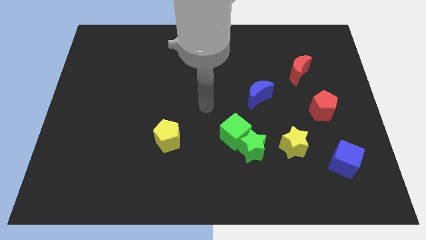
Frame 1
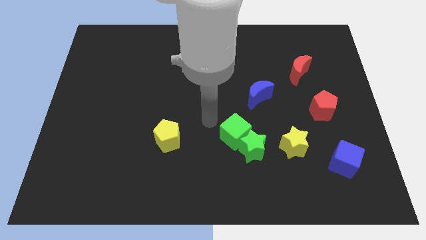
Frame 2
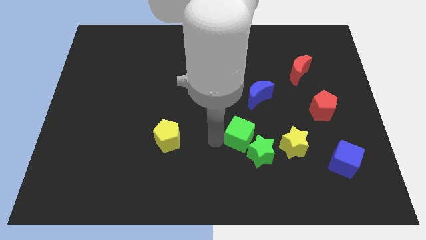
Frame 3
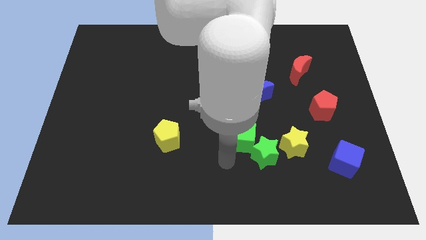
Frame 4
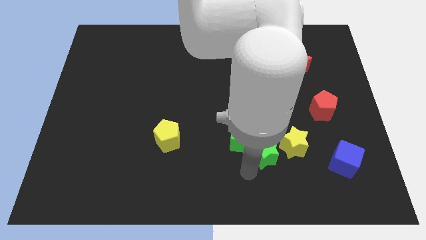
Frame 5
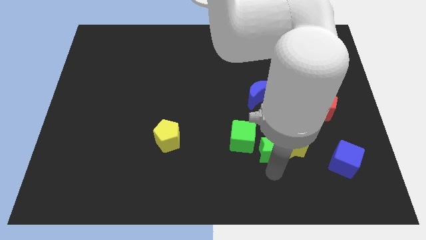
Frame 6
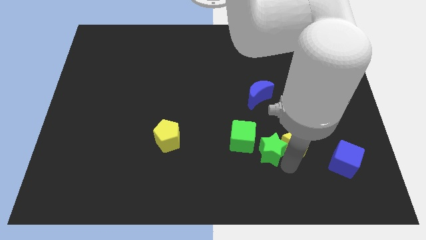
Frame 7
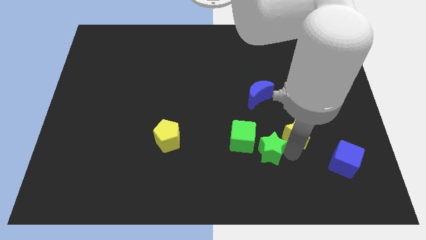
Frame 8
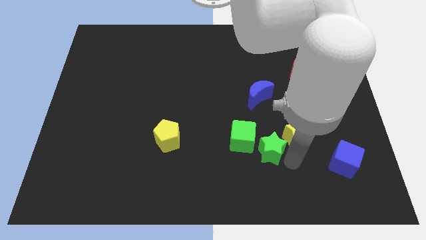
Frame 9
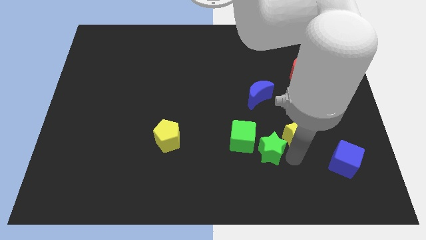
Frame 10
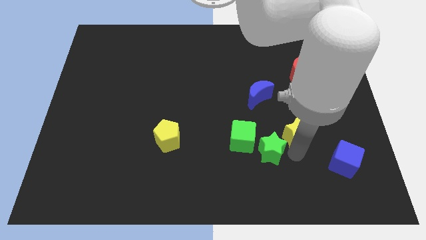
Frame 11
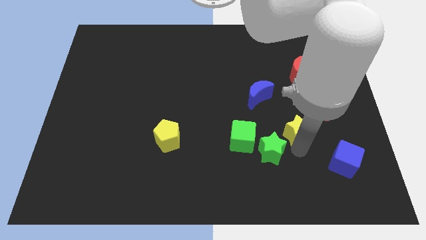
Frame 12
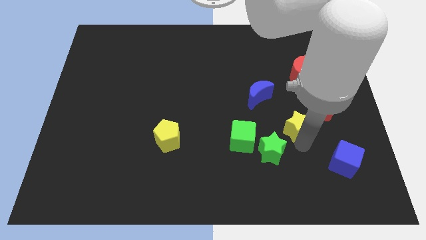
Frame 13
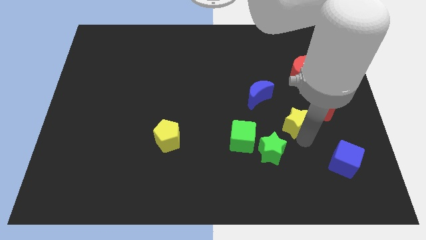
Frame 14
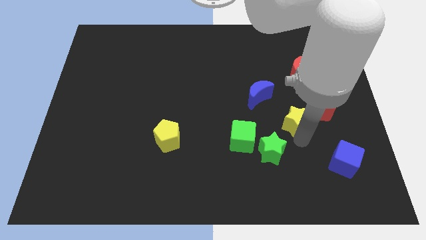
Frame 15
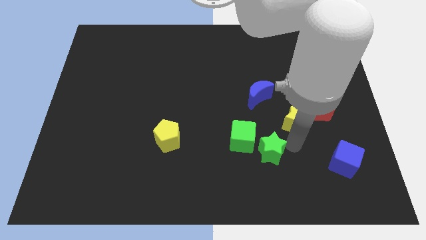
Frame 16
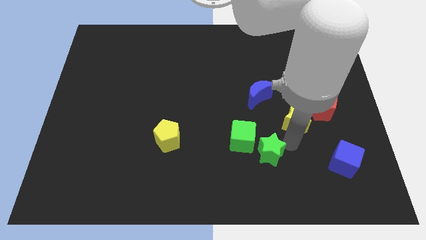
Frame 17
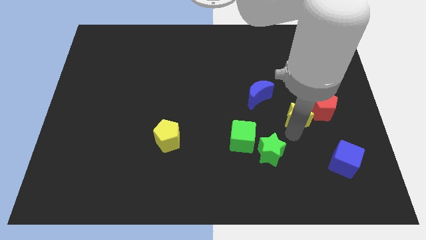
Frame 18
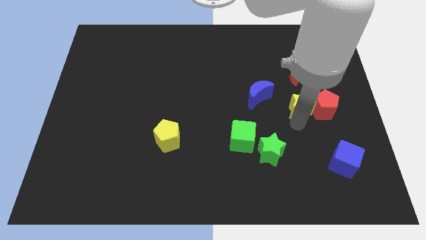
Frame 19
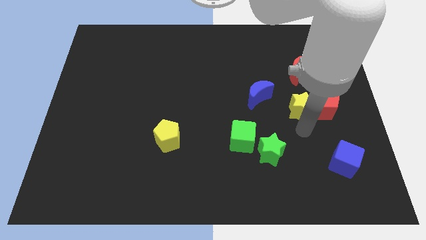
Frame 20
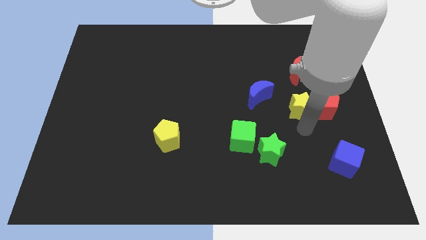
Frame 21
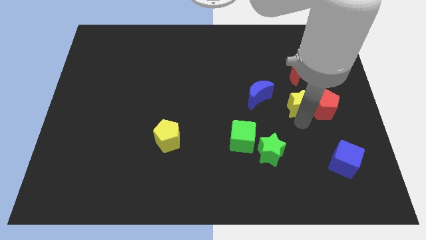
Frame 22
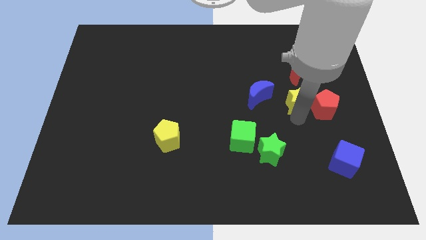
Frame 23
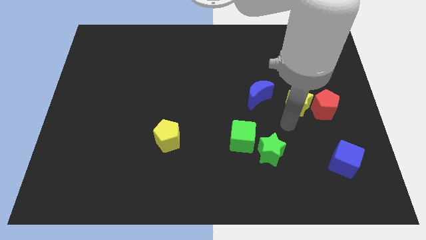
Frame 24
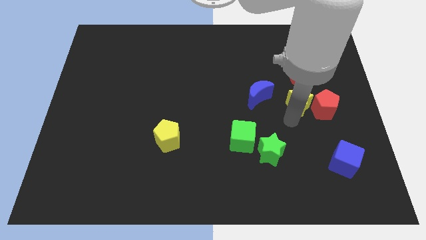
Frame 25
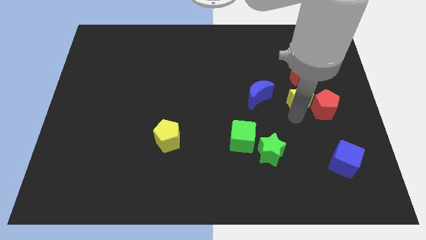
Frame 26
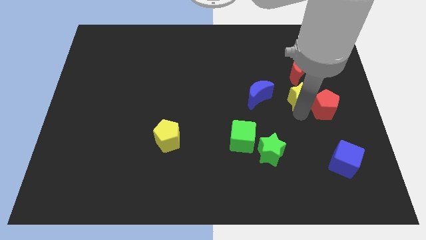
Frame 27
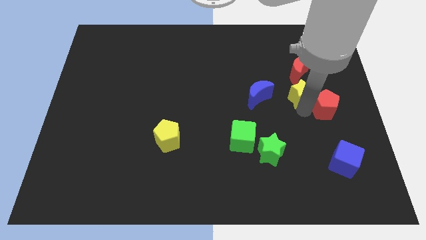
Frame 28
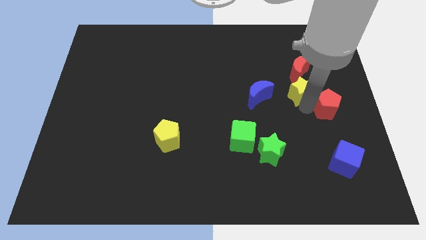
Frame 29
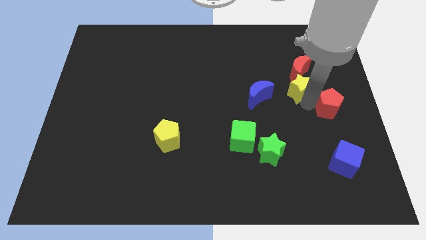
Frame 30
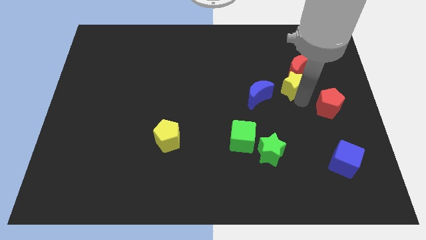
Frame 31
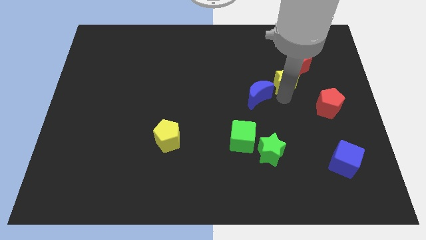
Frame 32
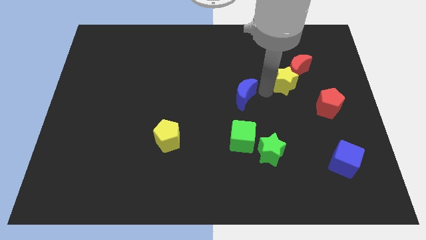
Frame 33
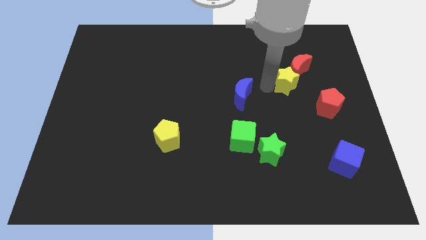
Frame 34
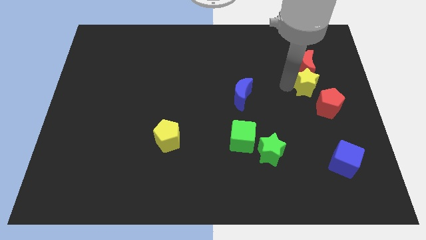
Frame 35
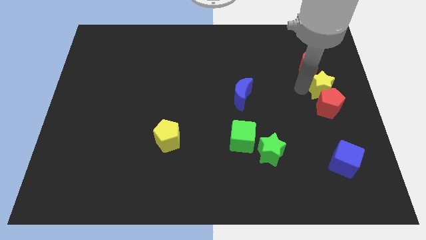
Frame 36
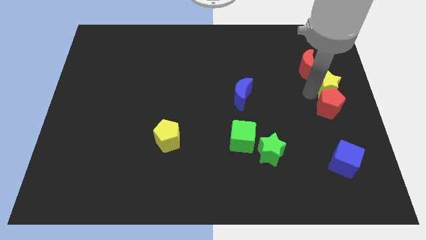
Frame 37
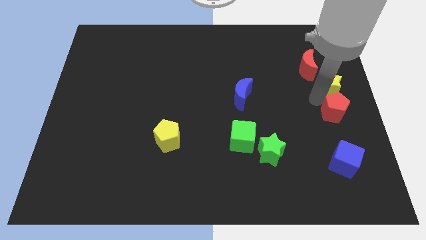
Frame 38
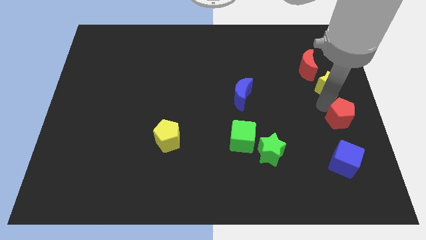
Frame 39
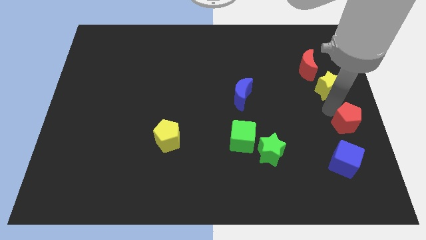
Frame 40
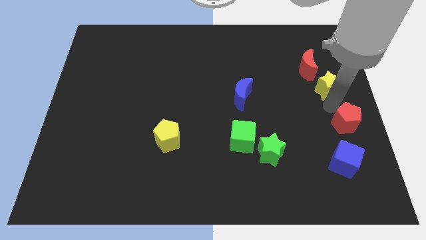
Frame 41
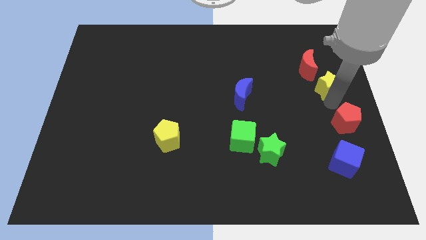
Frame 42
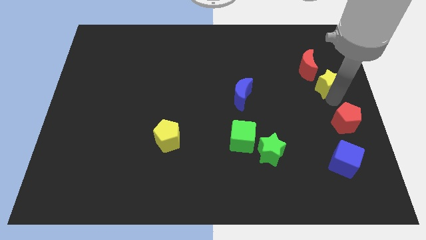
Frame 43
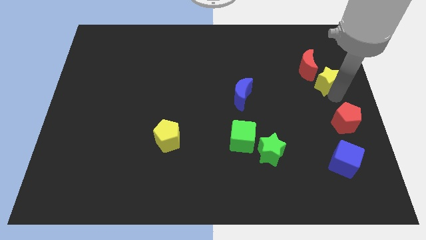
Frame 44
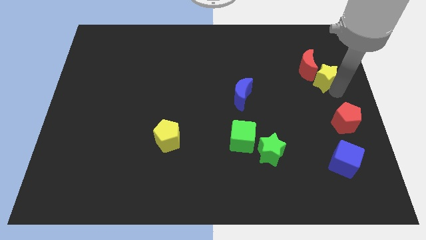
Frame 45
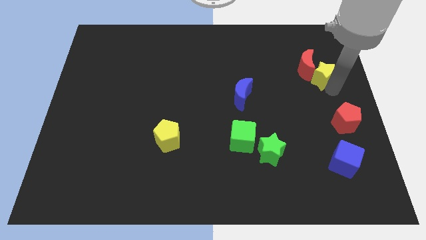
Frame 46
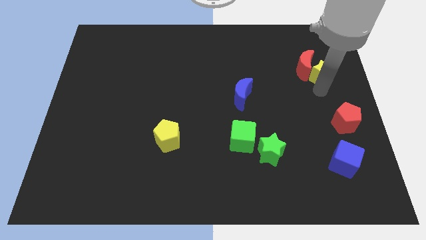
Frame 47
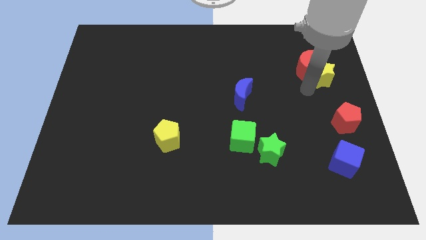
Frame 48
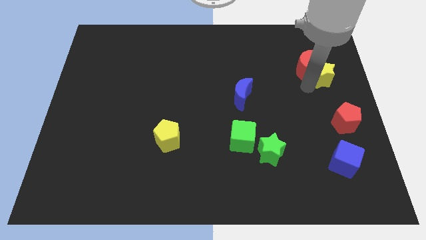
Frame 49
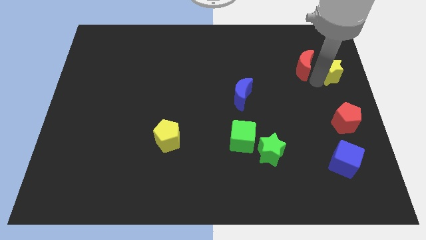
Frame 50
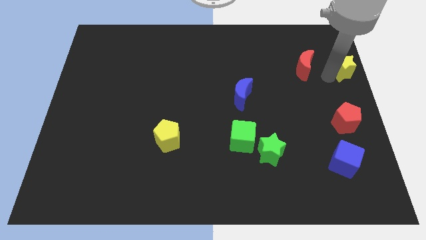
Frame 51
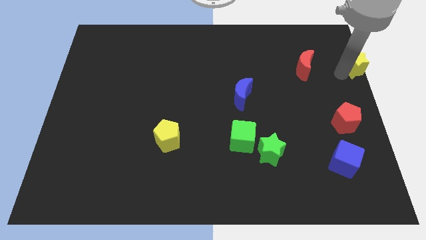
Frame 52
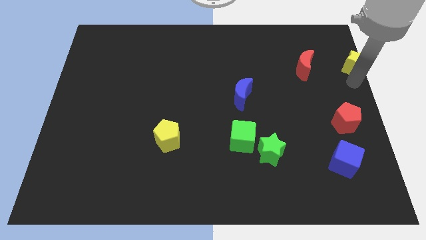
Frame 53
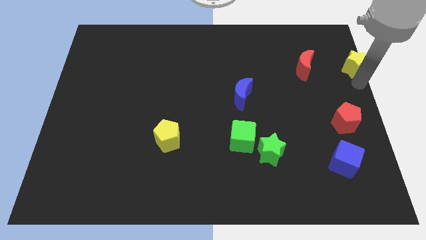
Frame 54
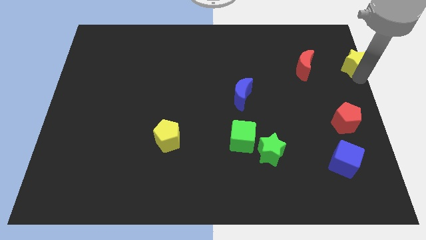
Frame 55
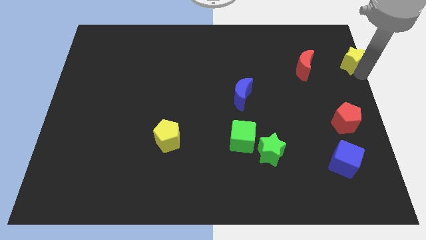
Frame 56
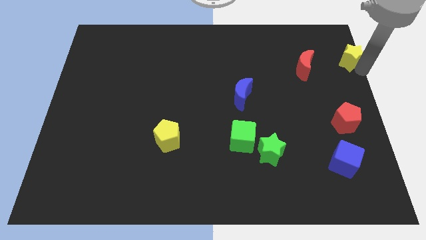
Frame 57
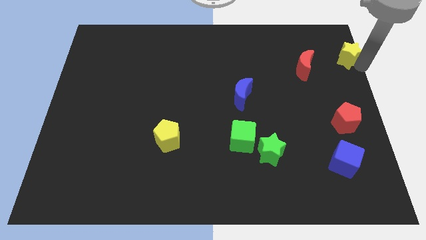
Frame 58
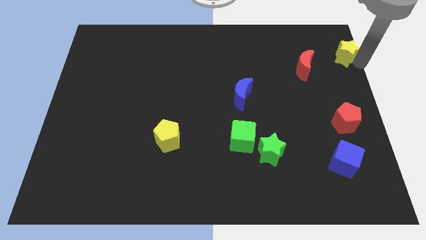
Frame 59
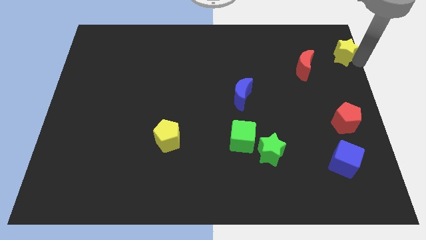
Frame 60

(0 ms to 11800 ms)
put the yellow star to the upper right corner

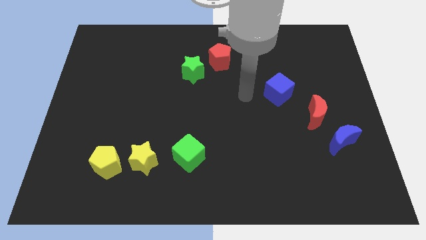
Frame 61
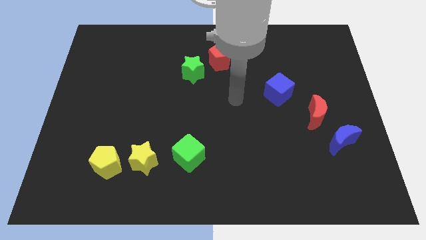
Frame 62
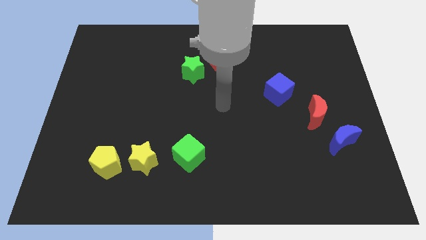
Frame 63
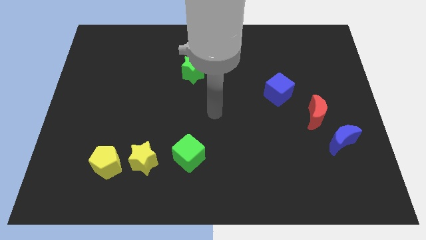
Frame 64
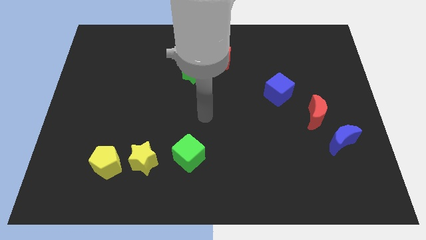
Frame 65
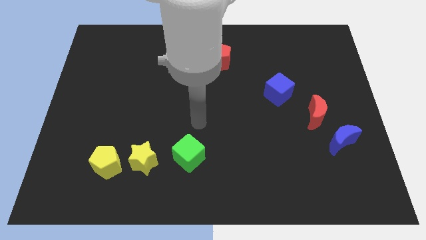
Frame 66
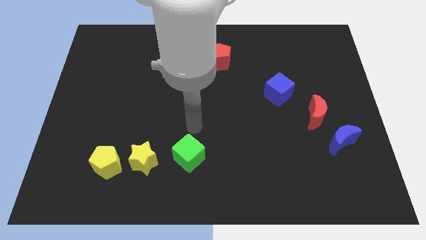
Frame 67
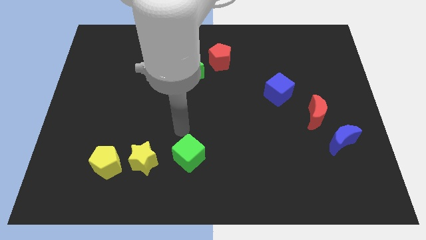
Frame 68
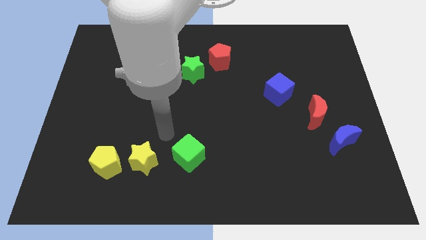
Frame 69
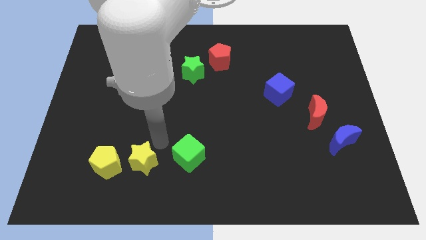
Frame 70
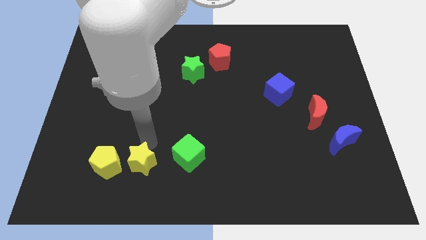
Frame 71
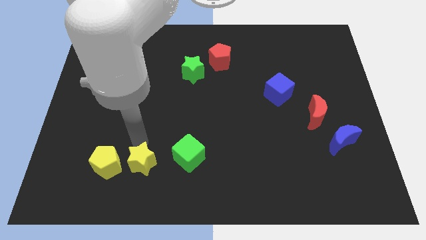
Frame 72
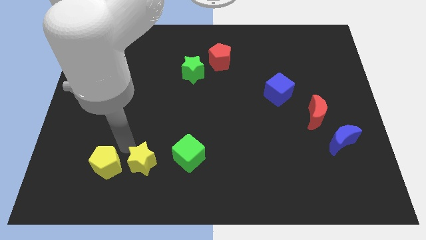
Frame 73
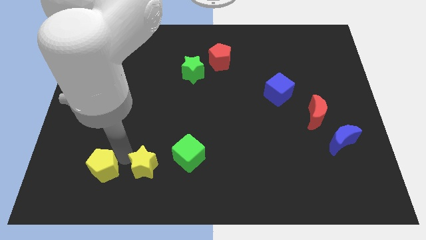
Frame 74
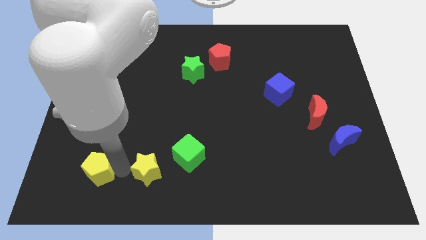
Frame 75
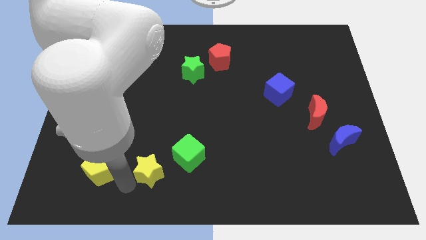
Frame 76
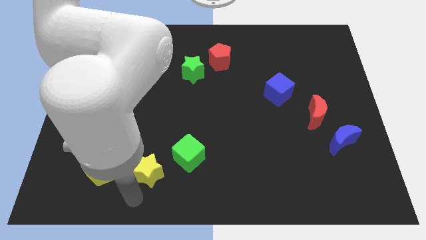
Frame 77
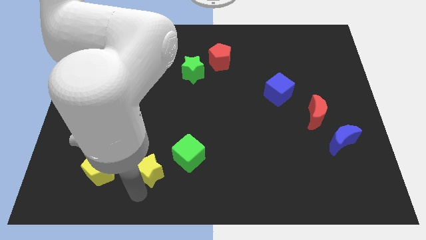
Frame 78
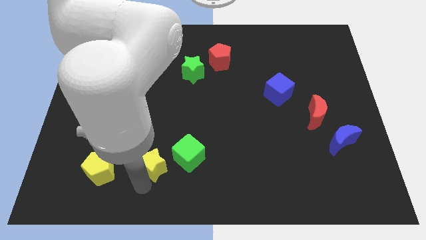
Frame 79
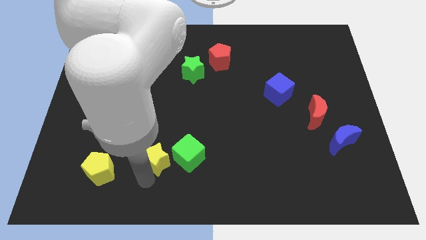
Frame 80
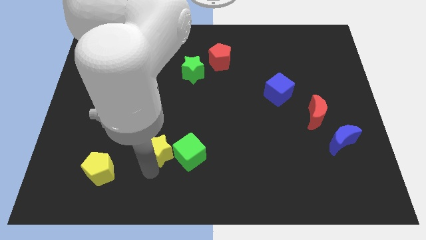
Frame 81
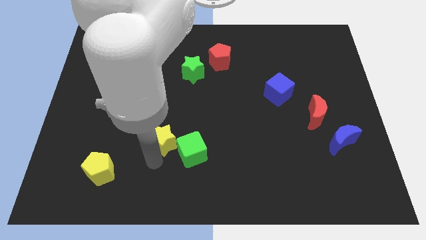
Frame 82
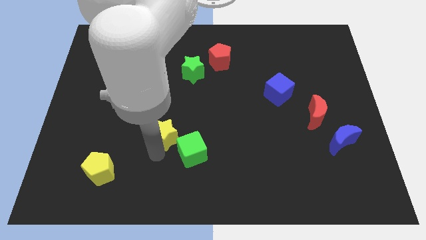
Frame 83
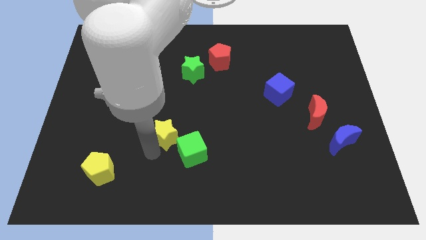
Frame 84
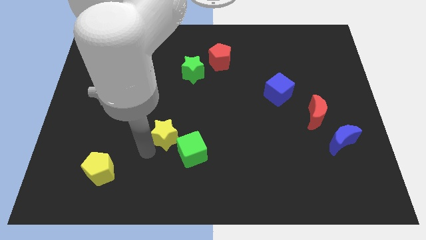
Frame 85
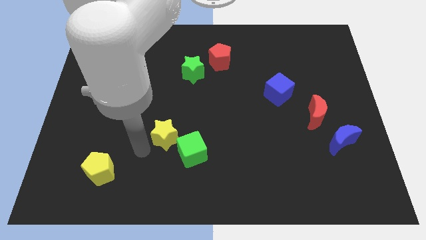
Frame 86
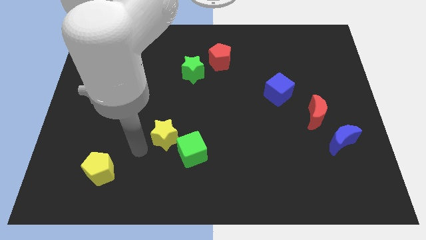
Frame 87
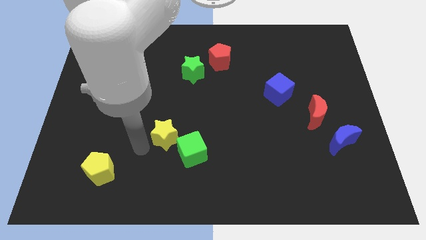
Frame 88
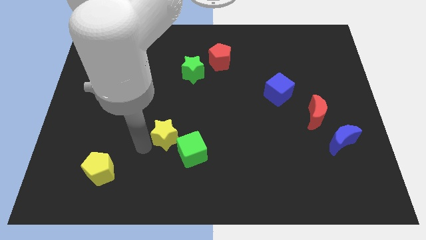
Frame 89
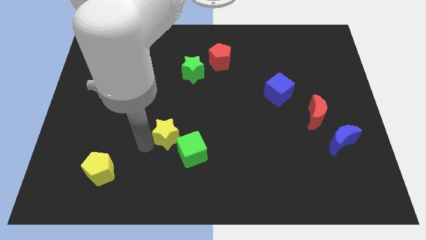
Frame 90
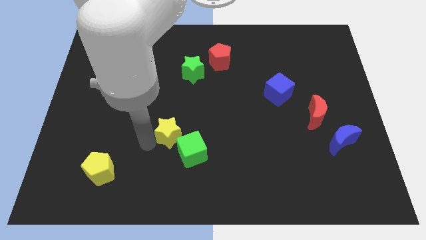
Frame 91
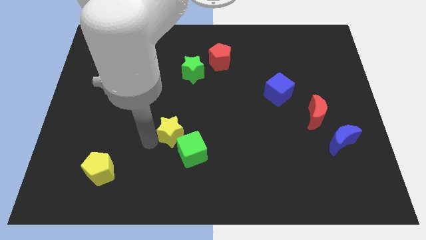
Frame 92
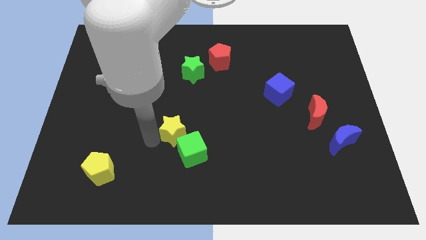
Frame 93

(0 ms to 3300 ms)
move the yellow star to the middle of the board
